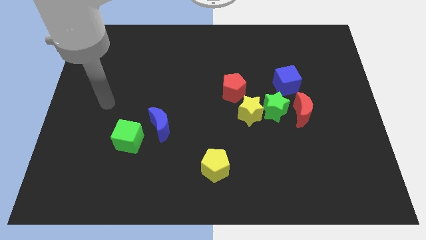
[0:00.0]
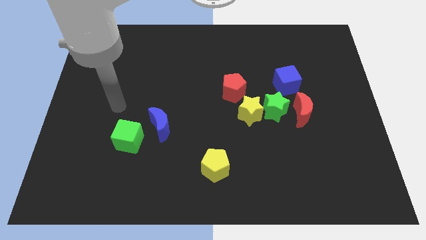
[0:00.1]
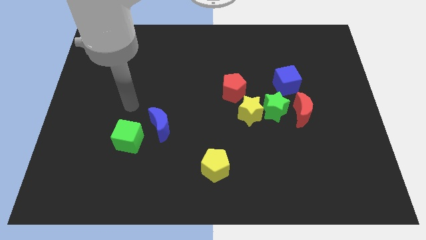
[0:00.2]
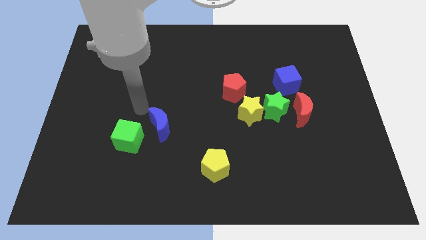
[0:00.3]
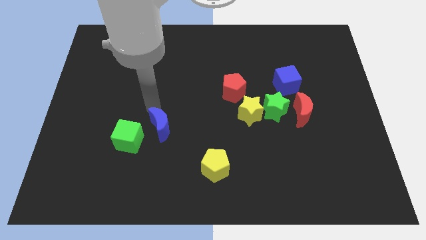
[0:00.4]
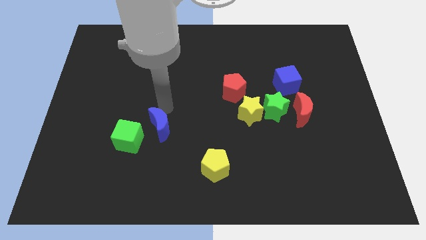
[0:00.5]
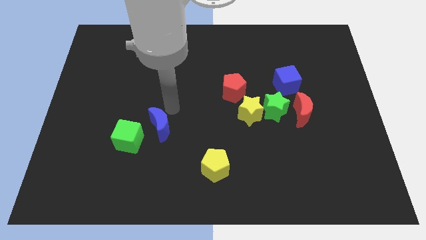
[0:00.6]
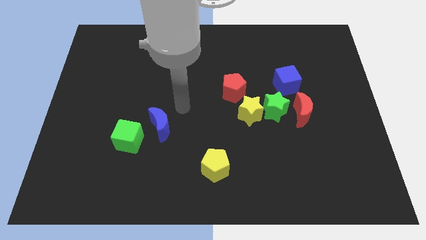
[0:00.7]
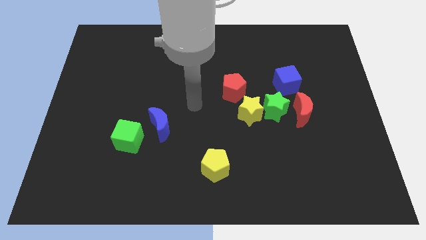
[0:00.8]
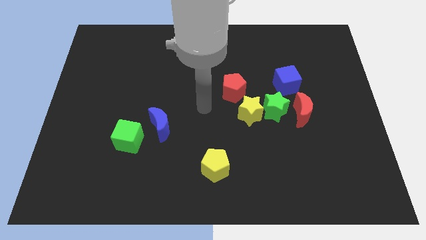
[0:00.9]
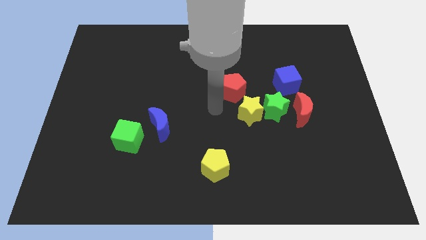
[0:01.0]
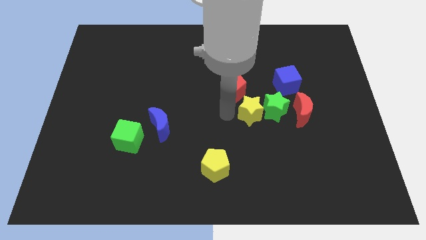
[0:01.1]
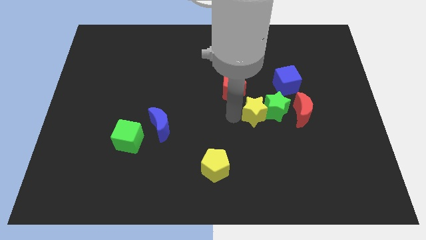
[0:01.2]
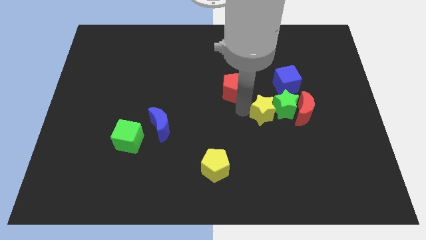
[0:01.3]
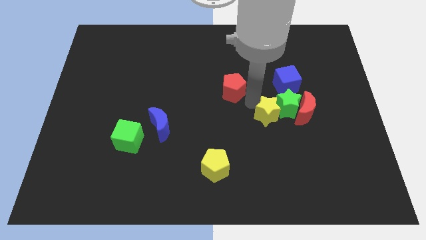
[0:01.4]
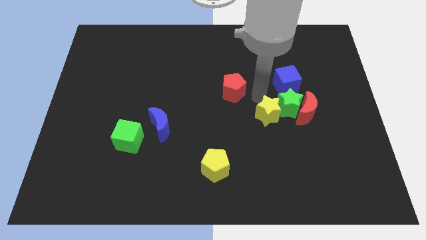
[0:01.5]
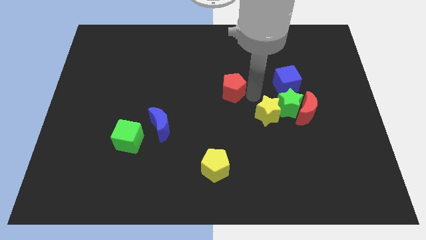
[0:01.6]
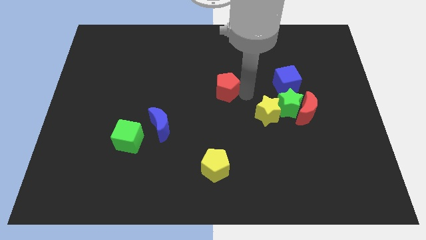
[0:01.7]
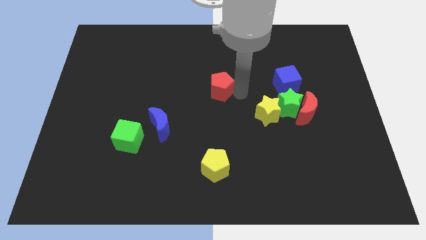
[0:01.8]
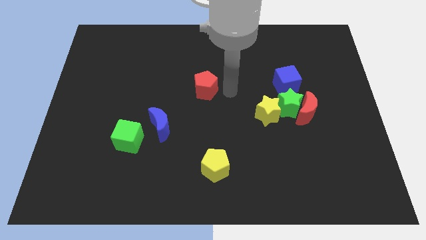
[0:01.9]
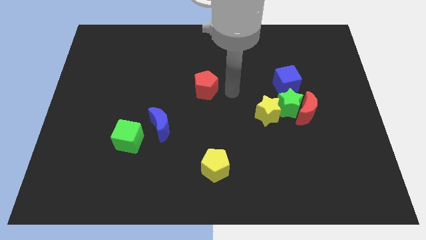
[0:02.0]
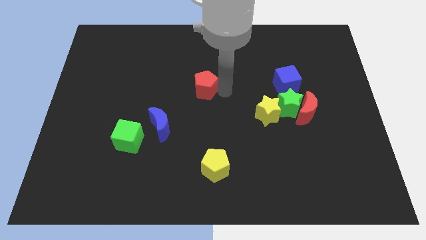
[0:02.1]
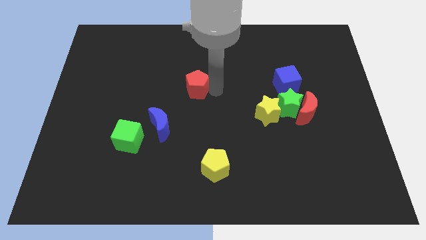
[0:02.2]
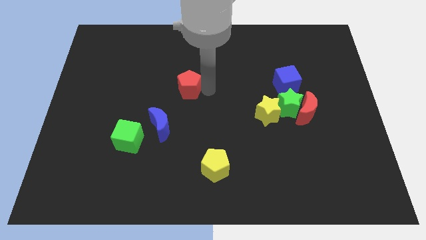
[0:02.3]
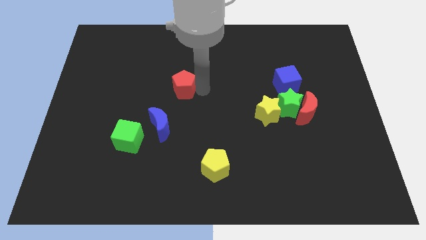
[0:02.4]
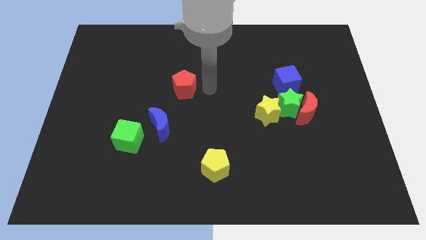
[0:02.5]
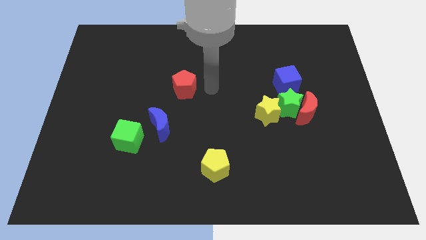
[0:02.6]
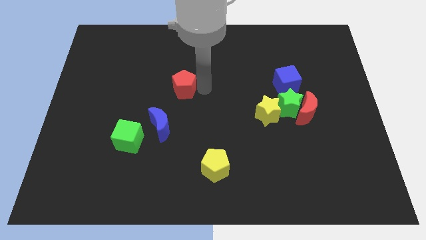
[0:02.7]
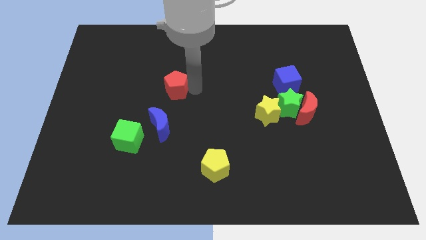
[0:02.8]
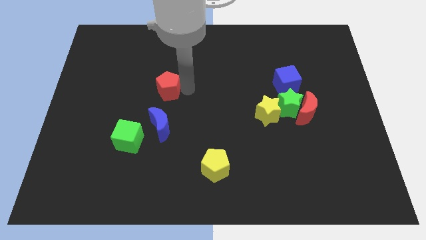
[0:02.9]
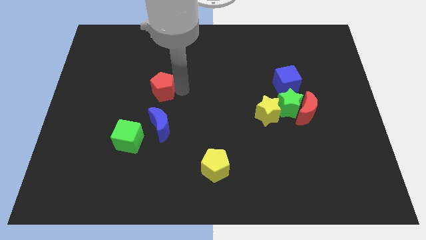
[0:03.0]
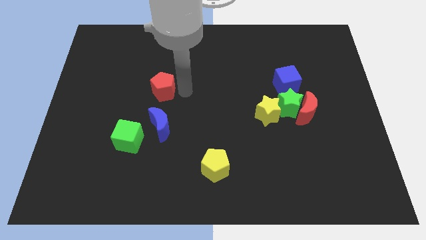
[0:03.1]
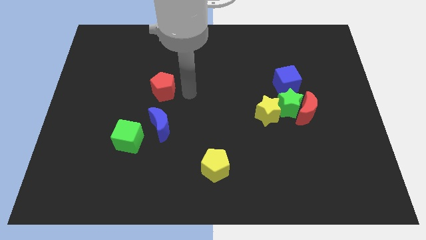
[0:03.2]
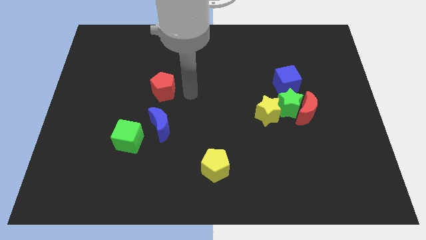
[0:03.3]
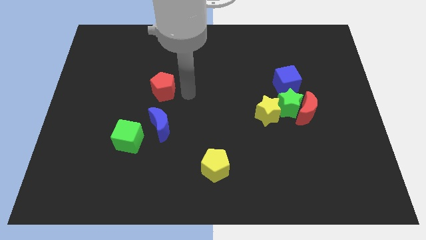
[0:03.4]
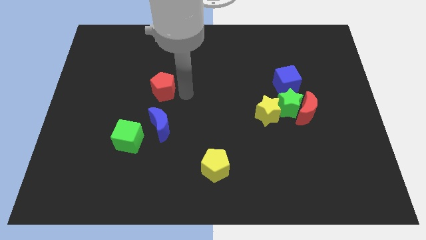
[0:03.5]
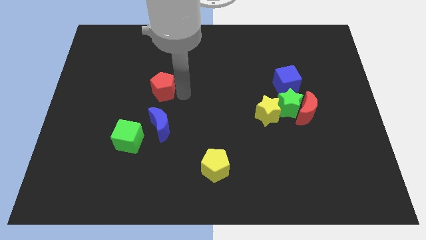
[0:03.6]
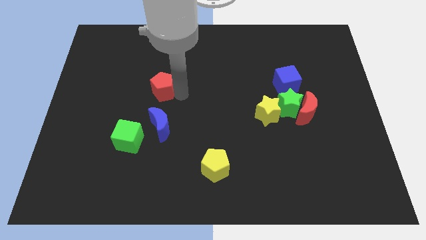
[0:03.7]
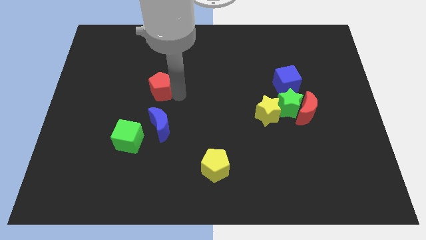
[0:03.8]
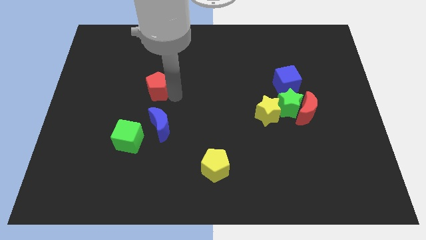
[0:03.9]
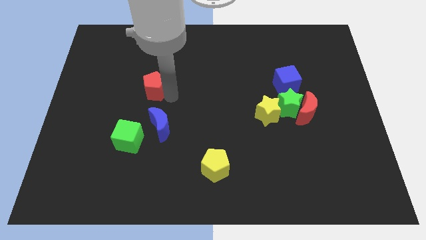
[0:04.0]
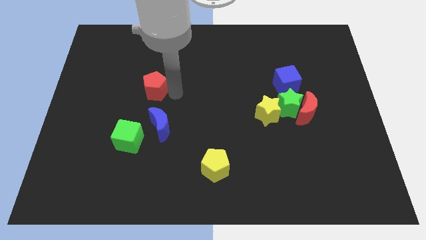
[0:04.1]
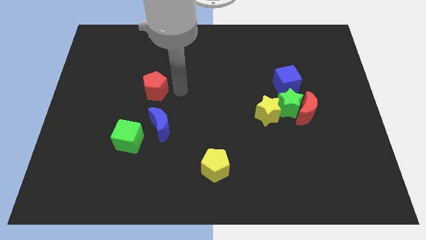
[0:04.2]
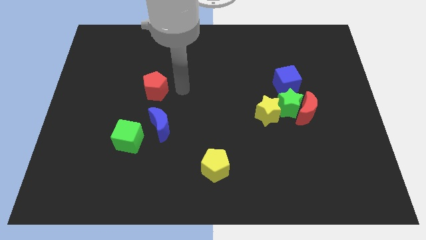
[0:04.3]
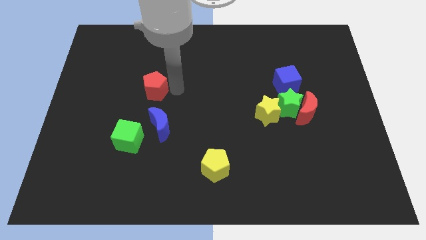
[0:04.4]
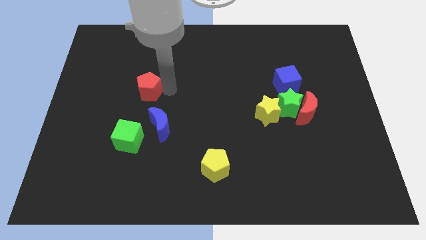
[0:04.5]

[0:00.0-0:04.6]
push the red pentagon to the left

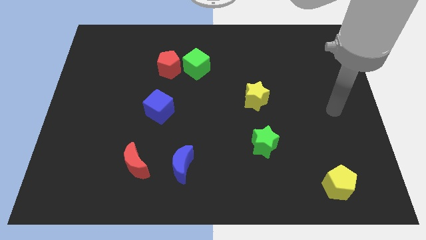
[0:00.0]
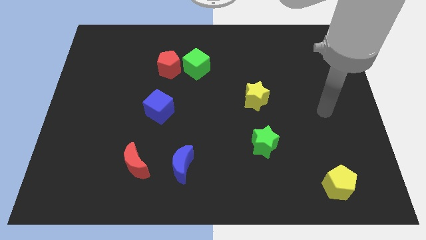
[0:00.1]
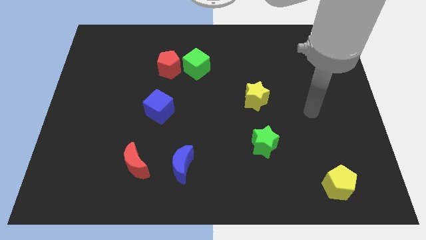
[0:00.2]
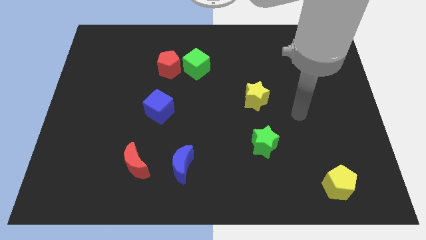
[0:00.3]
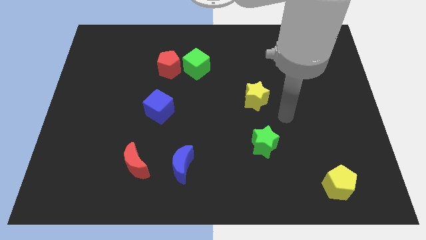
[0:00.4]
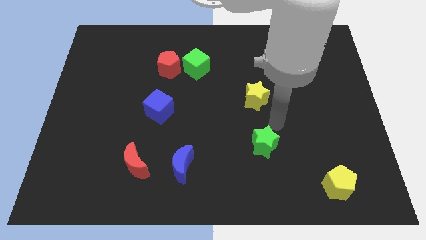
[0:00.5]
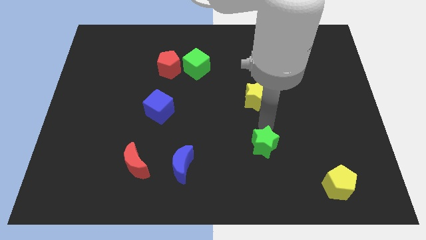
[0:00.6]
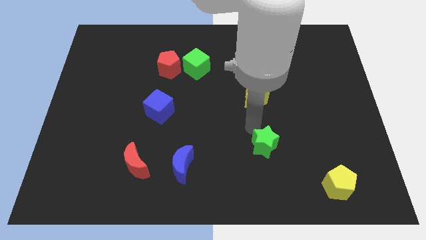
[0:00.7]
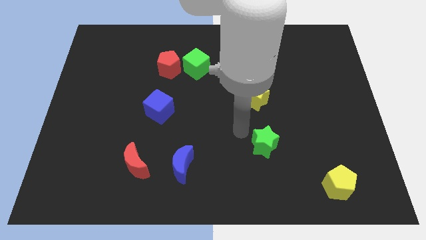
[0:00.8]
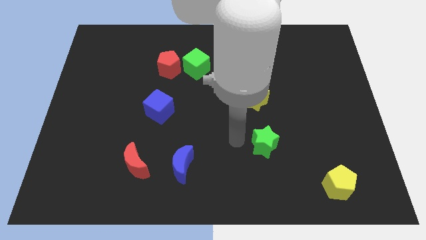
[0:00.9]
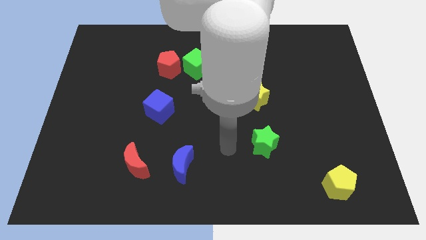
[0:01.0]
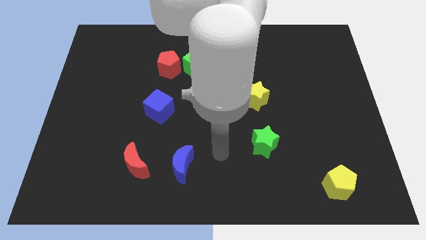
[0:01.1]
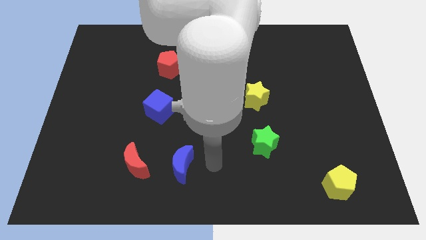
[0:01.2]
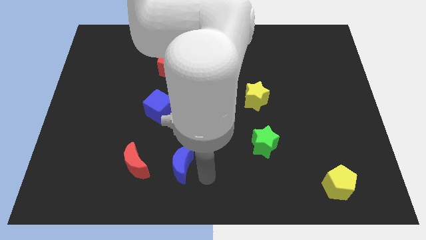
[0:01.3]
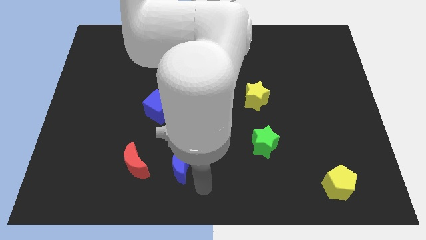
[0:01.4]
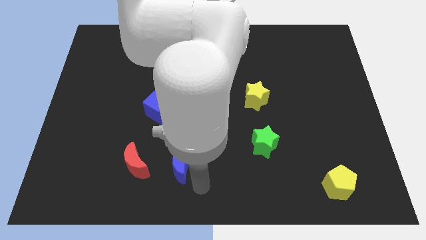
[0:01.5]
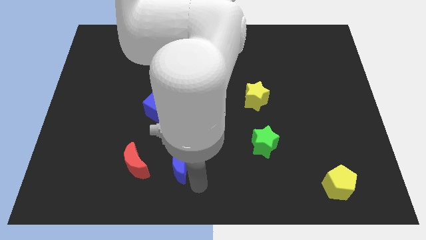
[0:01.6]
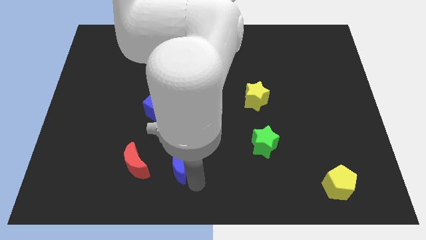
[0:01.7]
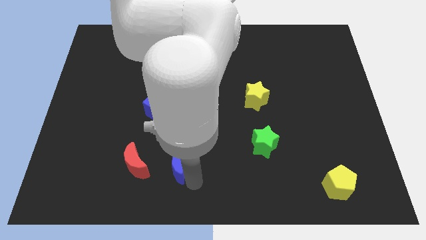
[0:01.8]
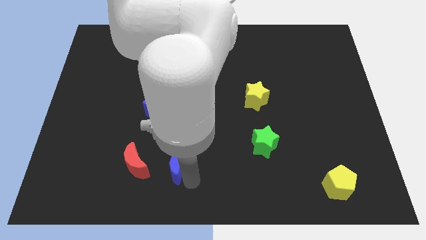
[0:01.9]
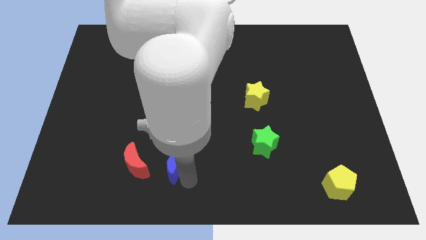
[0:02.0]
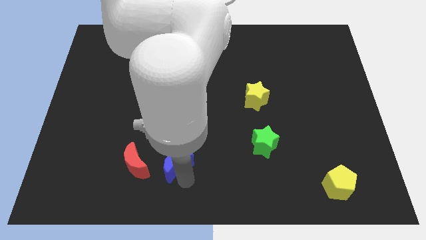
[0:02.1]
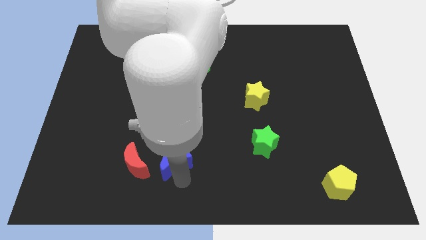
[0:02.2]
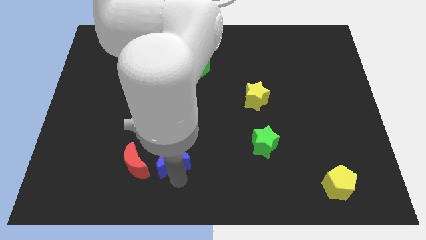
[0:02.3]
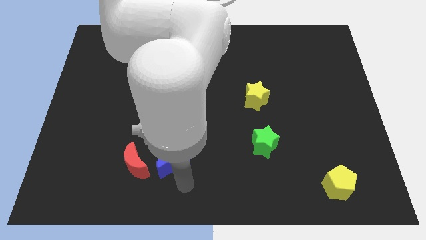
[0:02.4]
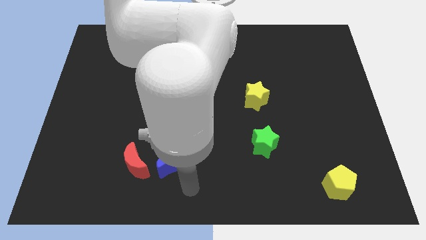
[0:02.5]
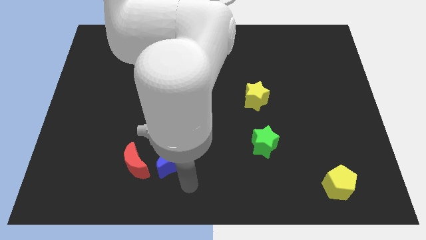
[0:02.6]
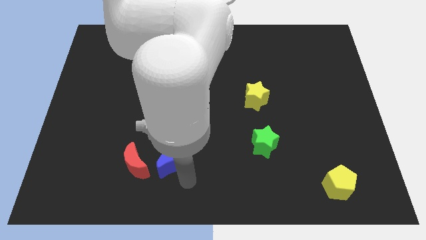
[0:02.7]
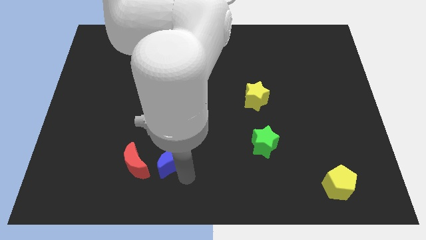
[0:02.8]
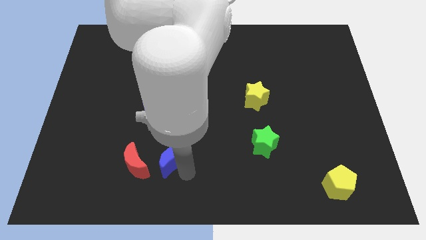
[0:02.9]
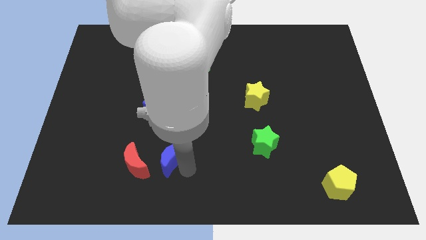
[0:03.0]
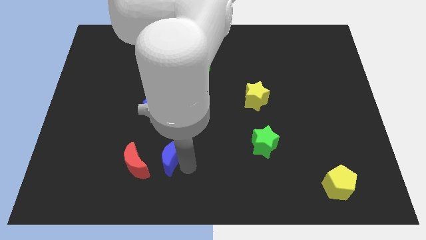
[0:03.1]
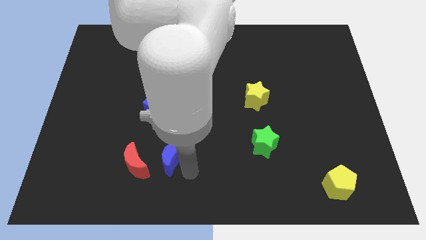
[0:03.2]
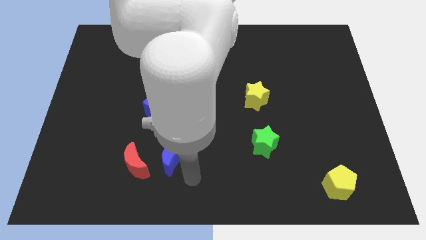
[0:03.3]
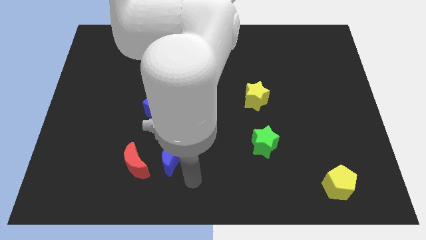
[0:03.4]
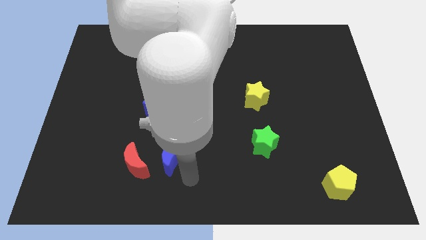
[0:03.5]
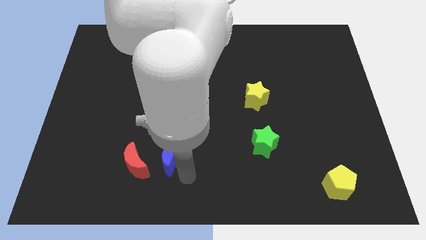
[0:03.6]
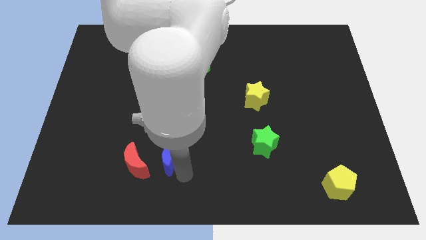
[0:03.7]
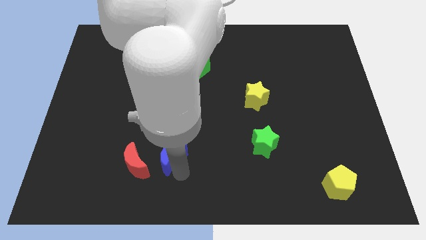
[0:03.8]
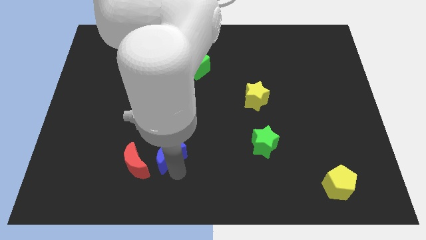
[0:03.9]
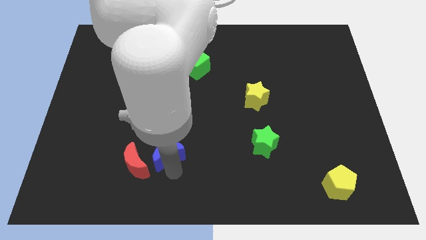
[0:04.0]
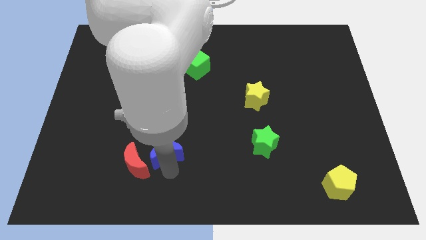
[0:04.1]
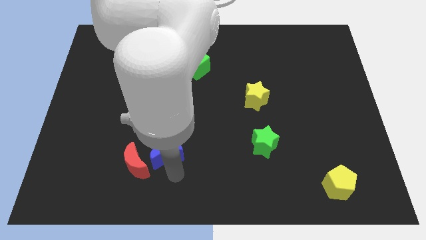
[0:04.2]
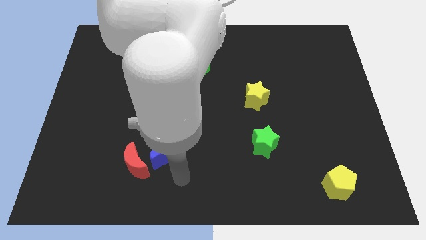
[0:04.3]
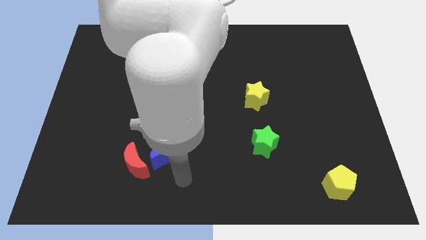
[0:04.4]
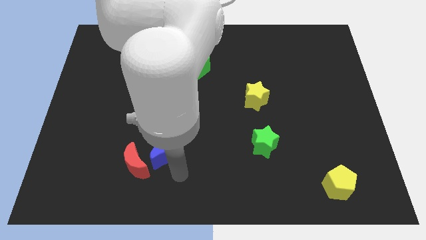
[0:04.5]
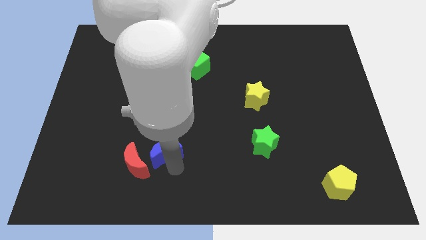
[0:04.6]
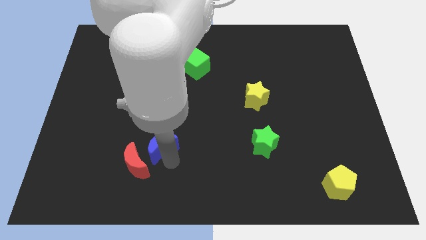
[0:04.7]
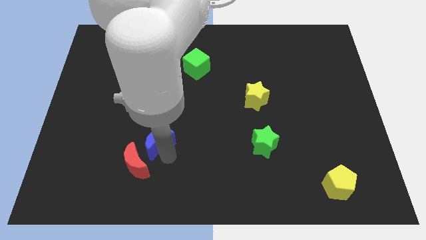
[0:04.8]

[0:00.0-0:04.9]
move the blue moon up and to the left a little
